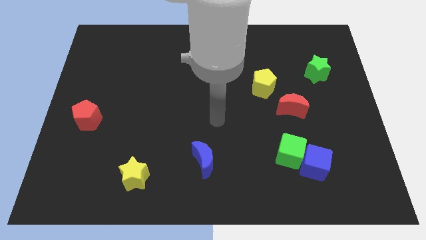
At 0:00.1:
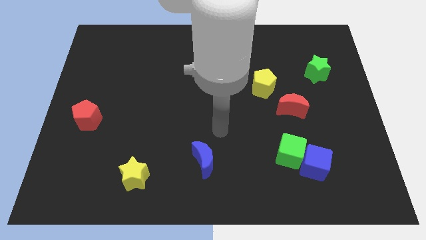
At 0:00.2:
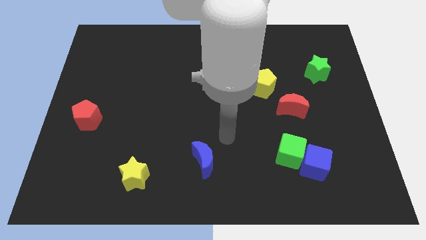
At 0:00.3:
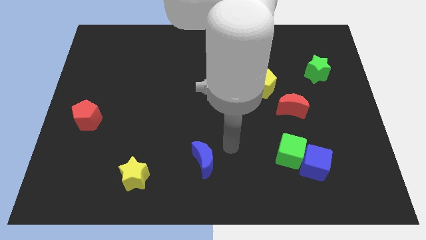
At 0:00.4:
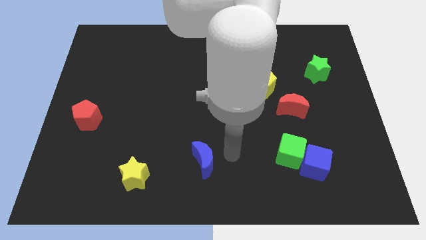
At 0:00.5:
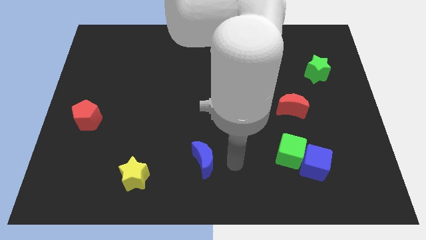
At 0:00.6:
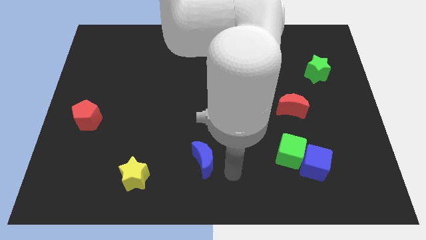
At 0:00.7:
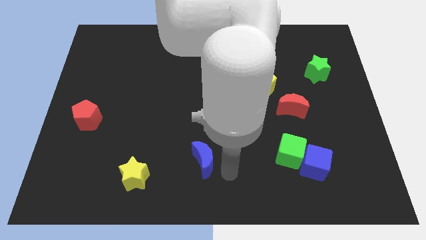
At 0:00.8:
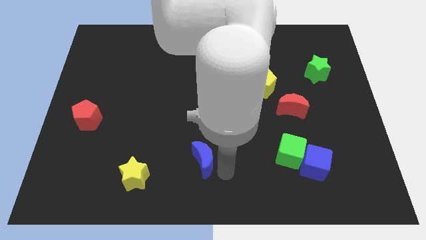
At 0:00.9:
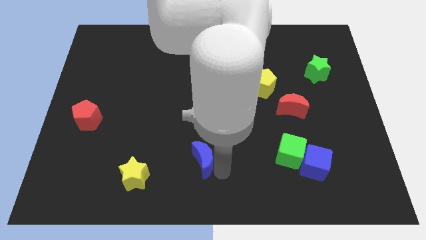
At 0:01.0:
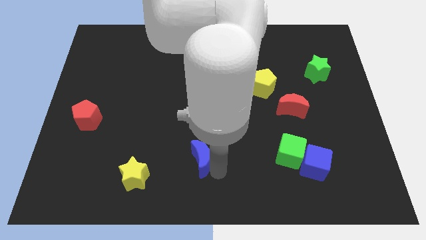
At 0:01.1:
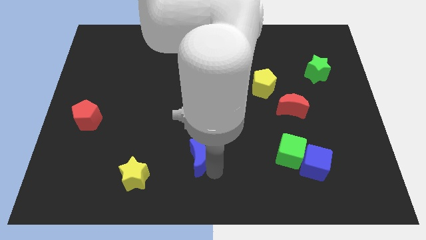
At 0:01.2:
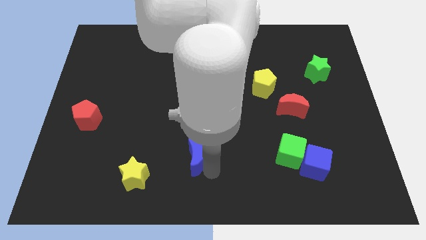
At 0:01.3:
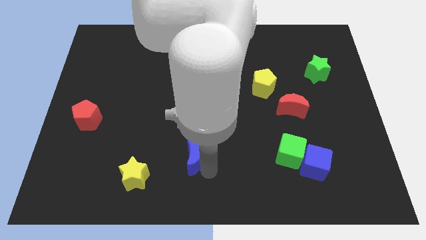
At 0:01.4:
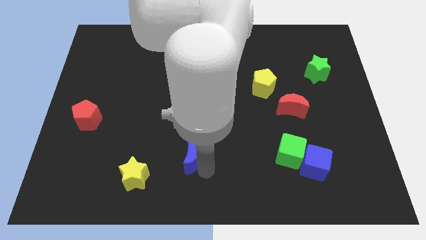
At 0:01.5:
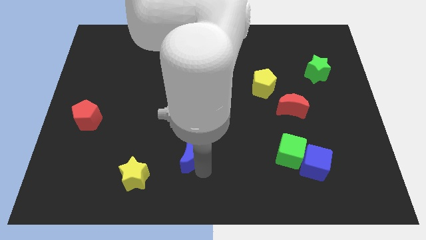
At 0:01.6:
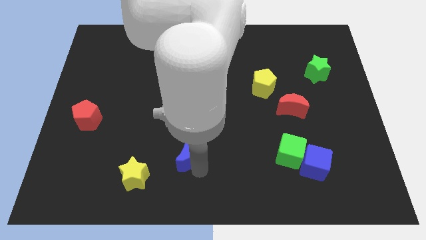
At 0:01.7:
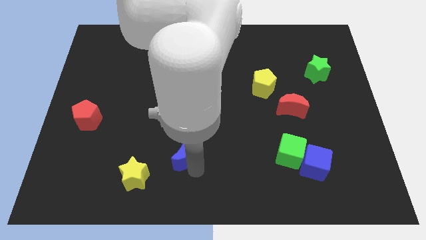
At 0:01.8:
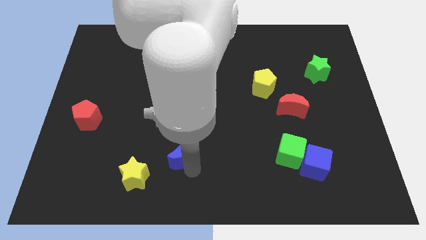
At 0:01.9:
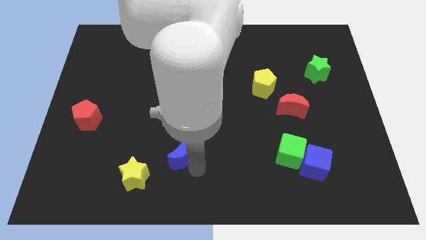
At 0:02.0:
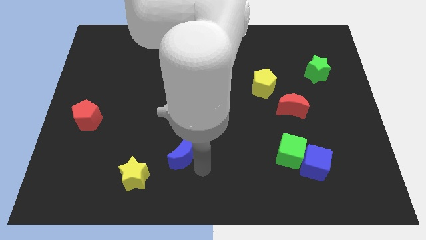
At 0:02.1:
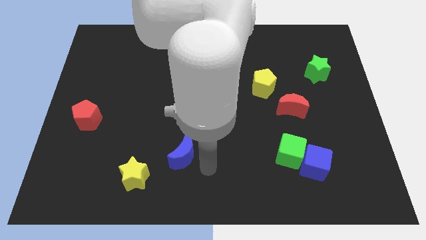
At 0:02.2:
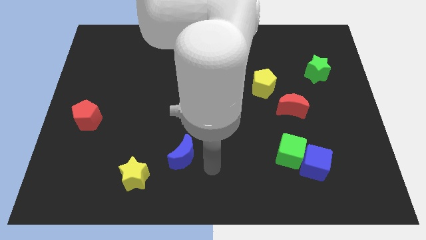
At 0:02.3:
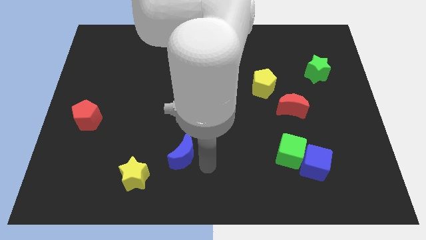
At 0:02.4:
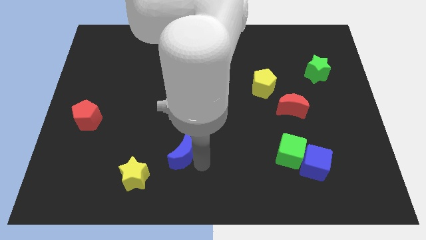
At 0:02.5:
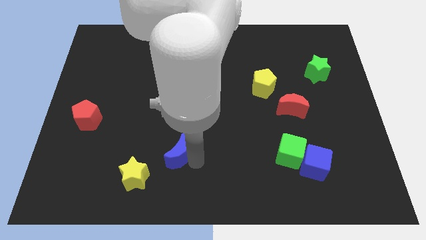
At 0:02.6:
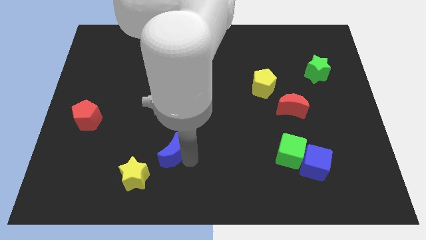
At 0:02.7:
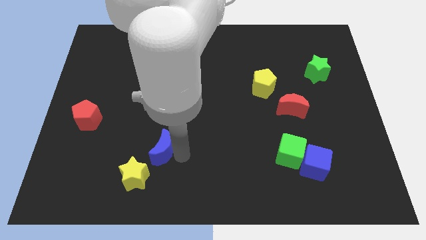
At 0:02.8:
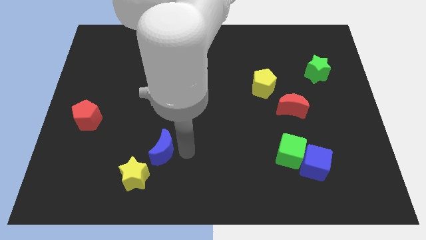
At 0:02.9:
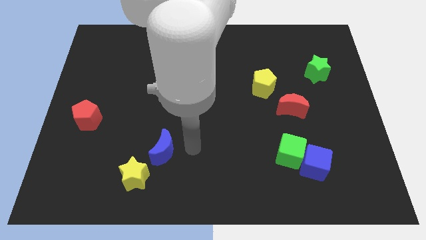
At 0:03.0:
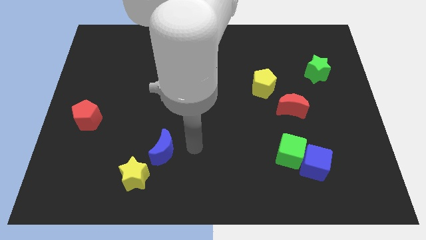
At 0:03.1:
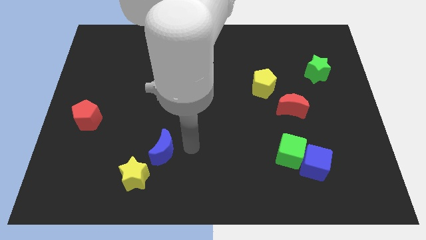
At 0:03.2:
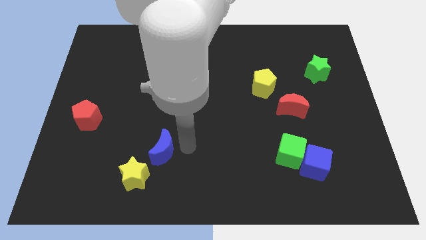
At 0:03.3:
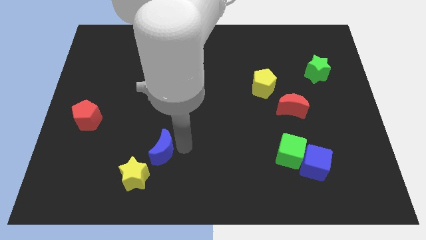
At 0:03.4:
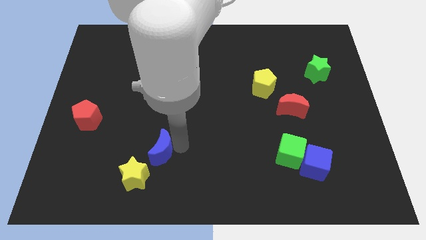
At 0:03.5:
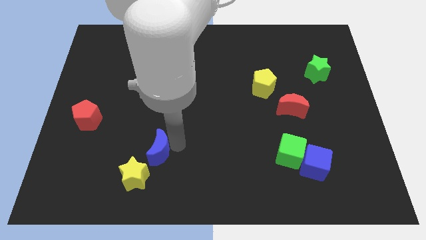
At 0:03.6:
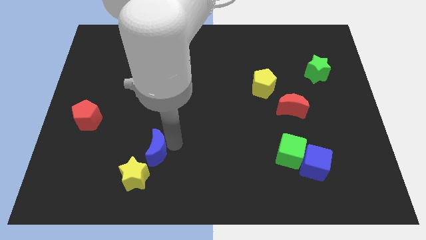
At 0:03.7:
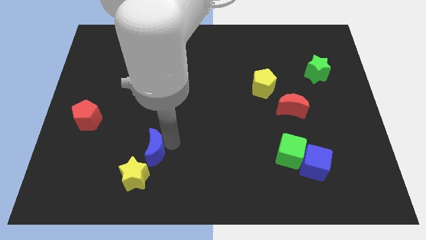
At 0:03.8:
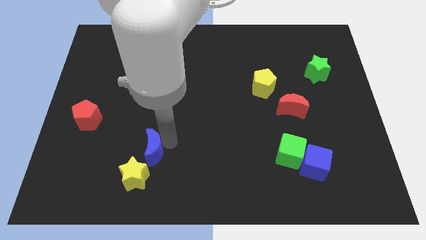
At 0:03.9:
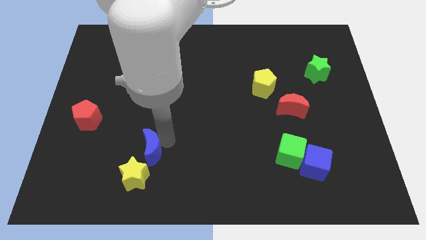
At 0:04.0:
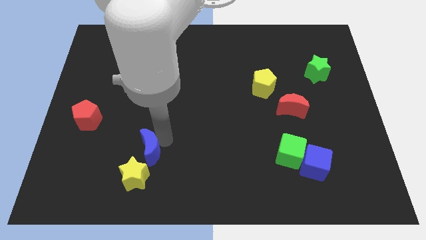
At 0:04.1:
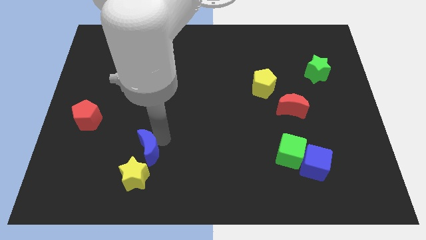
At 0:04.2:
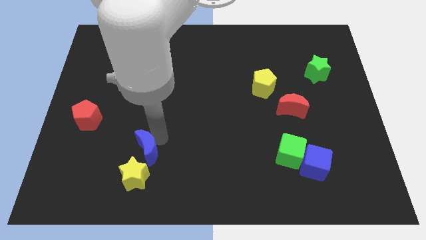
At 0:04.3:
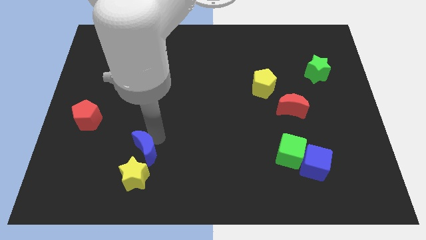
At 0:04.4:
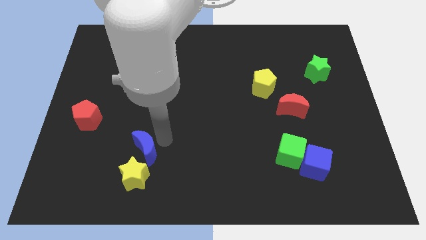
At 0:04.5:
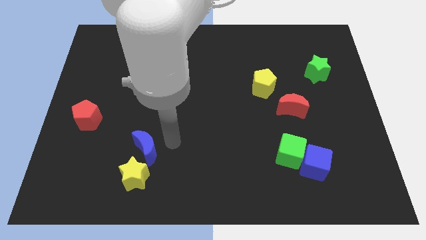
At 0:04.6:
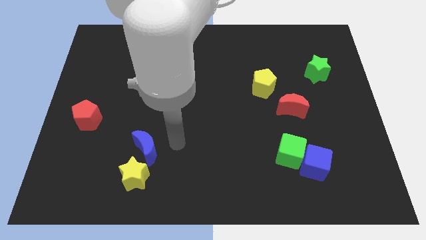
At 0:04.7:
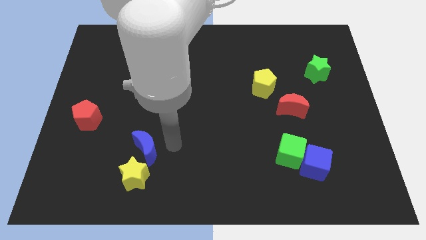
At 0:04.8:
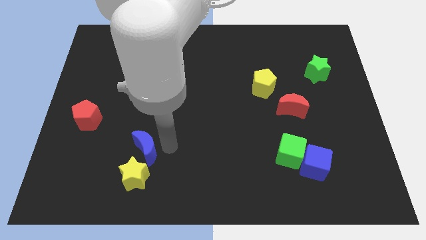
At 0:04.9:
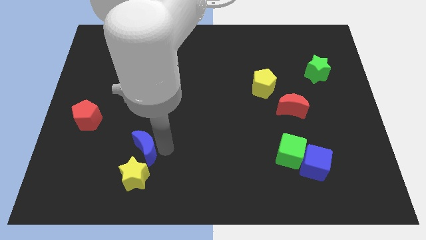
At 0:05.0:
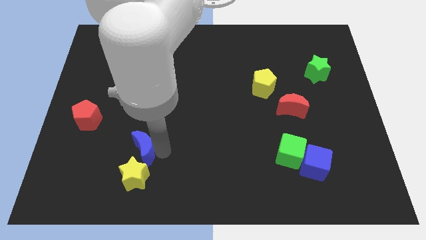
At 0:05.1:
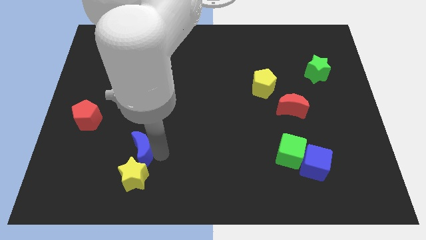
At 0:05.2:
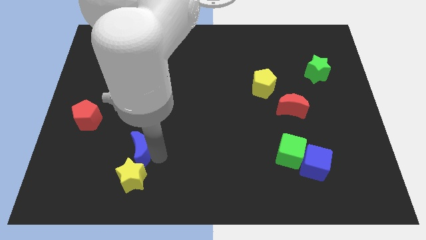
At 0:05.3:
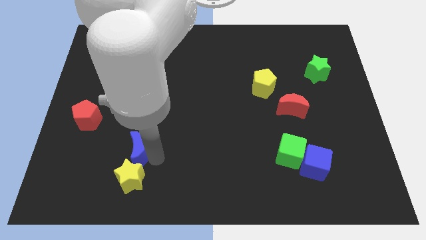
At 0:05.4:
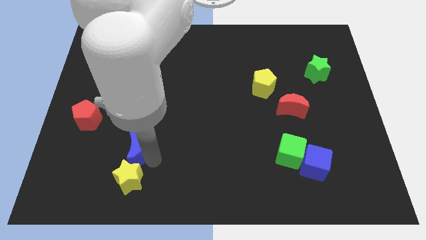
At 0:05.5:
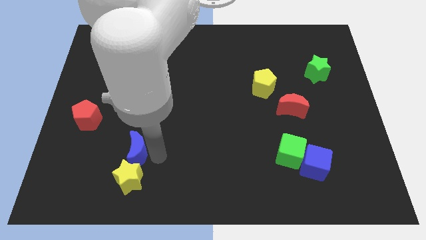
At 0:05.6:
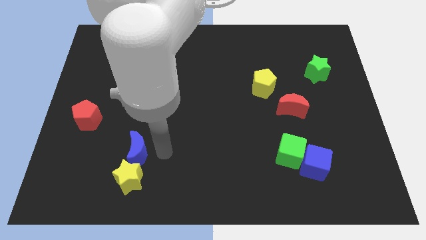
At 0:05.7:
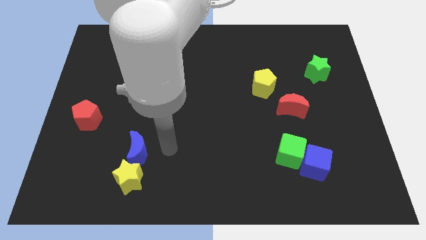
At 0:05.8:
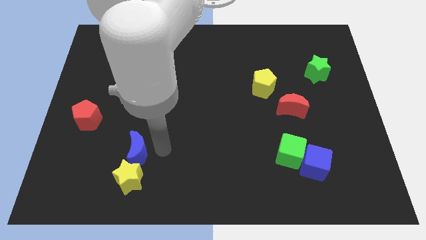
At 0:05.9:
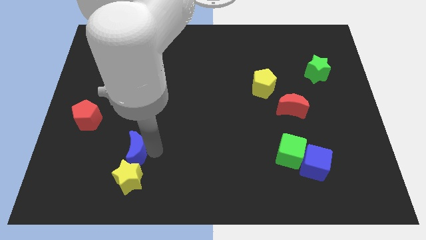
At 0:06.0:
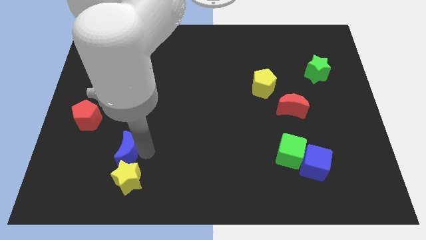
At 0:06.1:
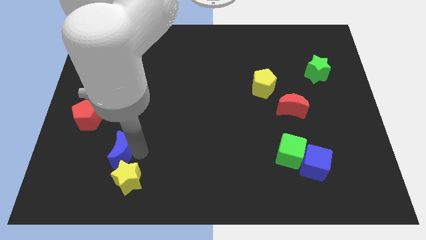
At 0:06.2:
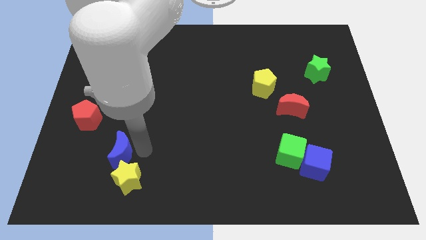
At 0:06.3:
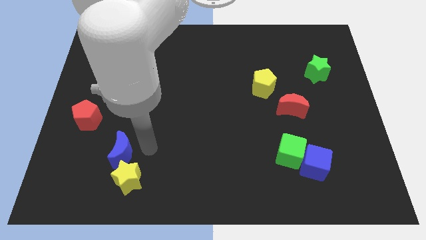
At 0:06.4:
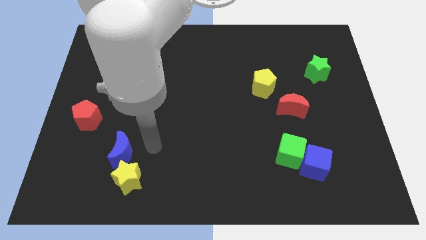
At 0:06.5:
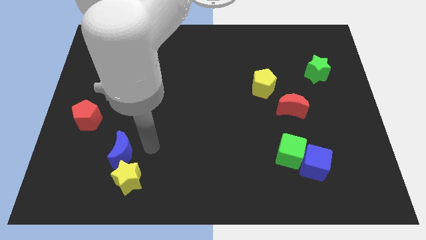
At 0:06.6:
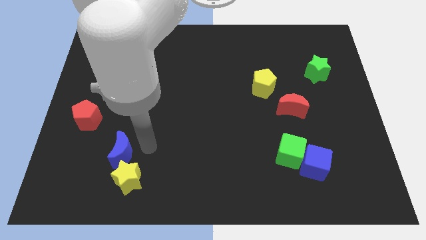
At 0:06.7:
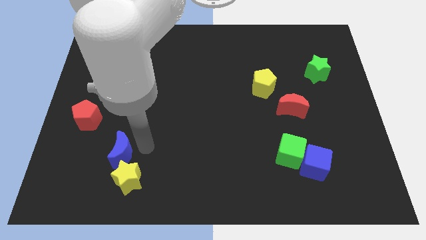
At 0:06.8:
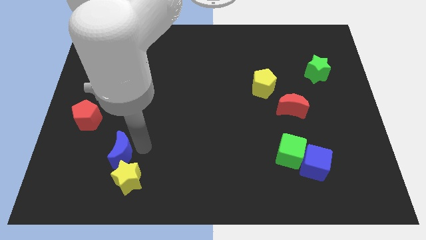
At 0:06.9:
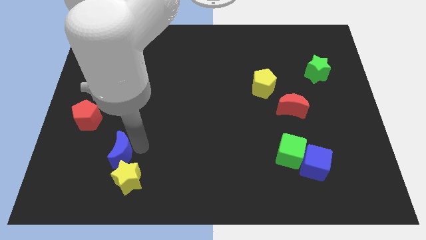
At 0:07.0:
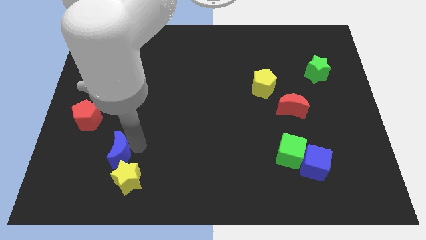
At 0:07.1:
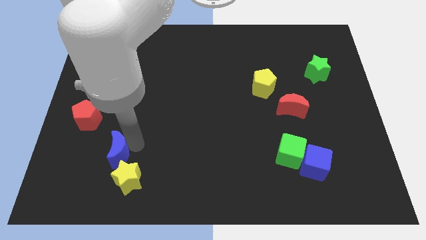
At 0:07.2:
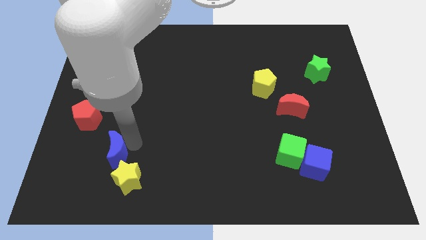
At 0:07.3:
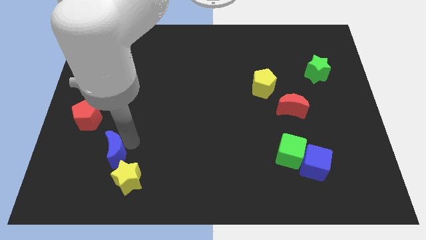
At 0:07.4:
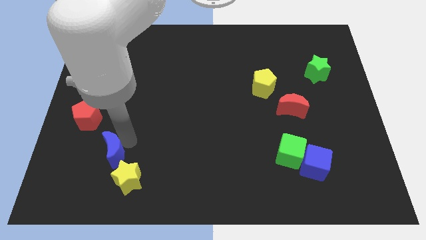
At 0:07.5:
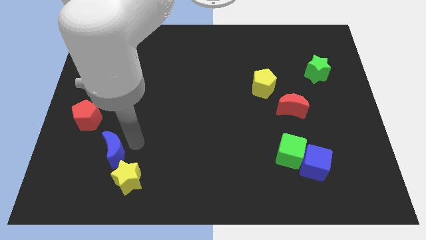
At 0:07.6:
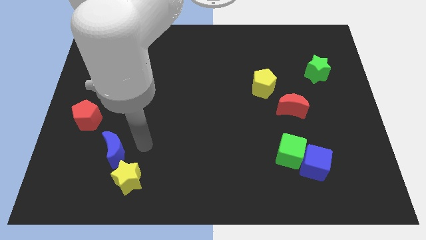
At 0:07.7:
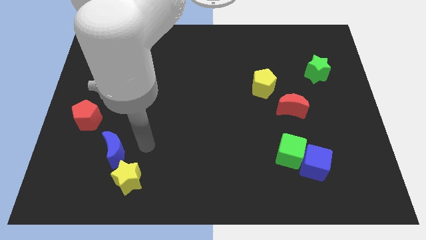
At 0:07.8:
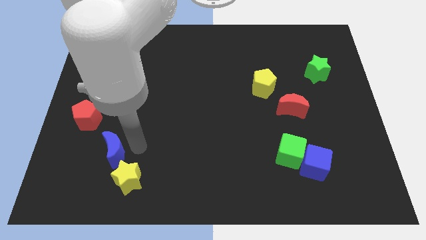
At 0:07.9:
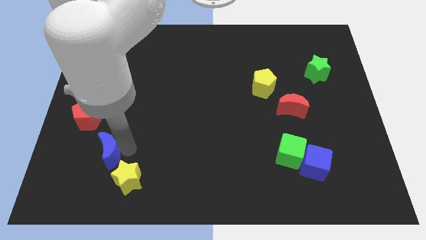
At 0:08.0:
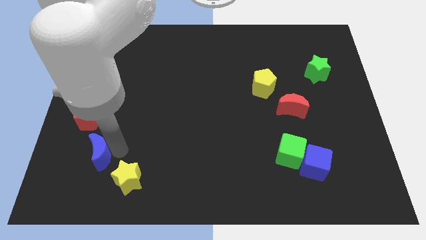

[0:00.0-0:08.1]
slide the blue moon to the bottom of the red pentagon

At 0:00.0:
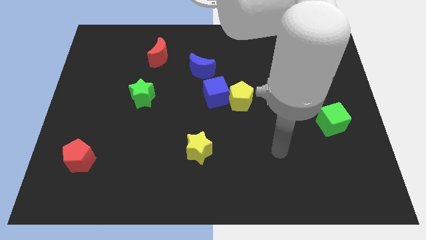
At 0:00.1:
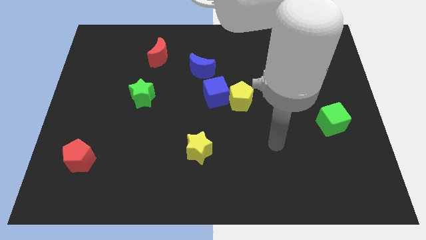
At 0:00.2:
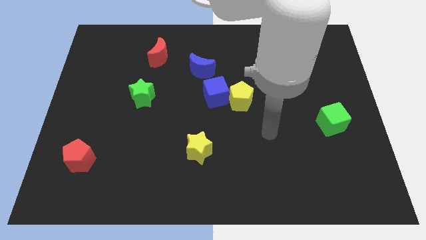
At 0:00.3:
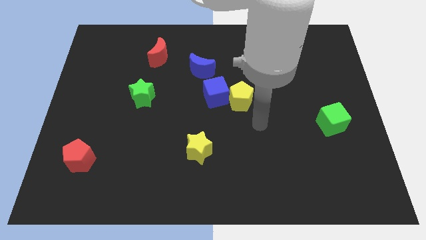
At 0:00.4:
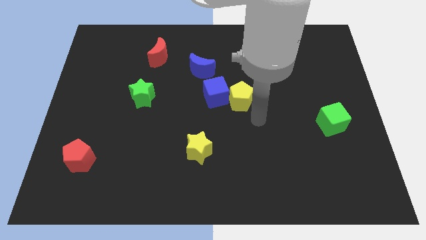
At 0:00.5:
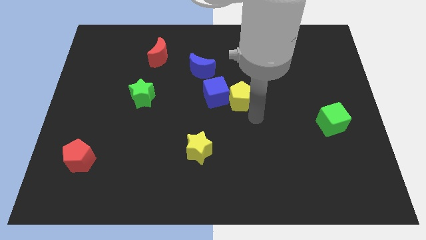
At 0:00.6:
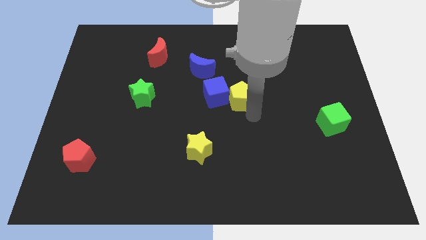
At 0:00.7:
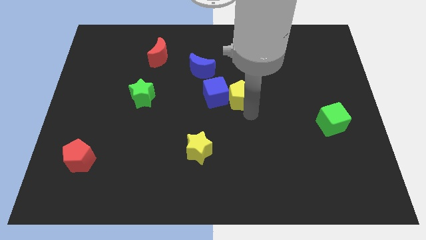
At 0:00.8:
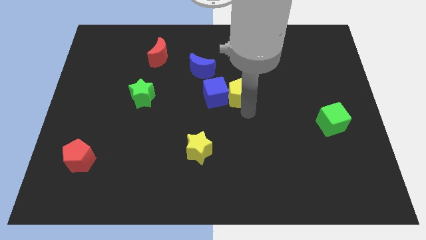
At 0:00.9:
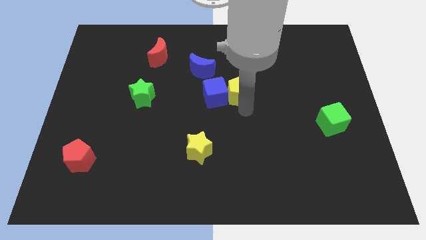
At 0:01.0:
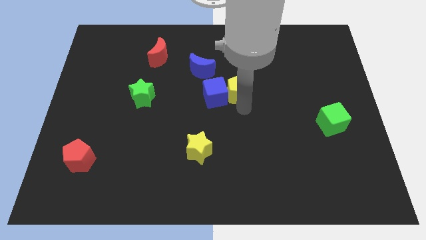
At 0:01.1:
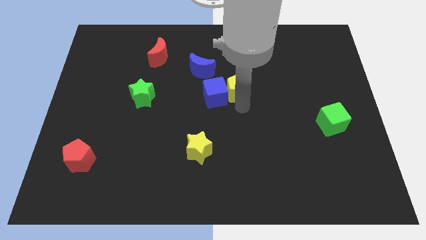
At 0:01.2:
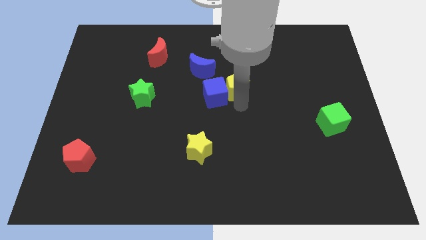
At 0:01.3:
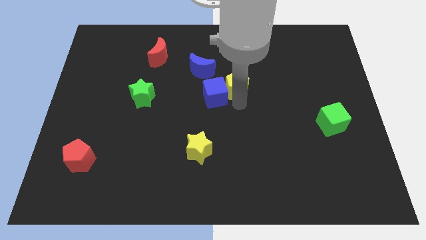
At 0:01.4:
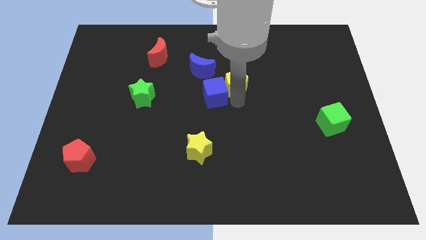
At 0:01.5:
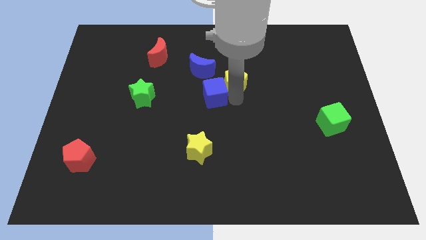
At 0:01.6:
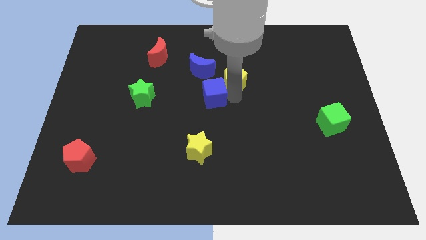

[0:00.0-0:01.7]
slide the yellow pentagon to the top of the blue cube
